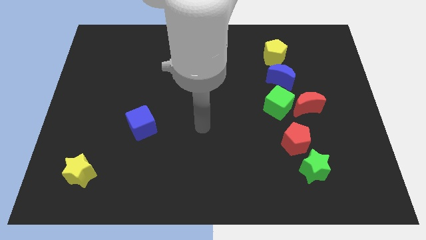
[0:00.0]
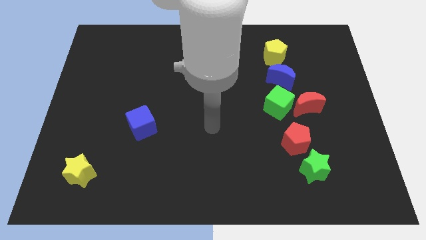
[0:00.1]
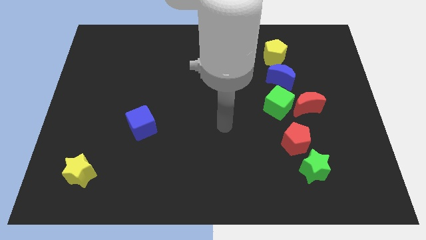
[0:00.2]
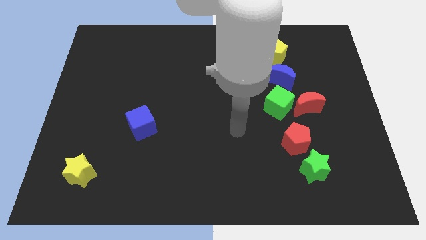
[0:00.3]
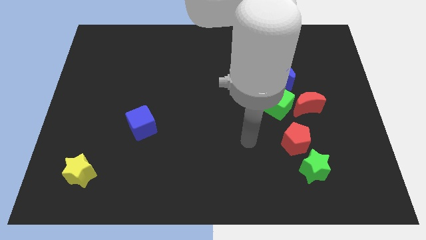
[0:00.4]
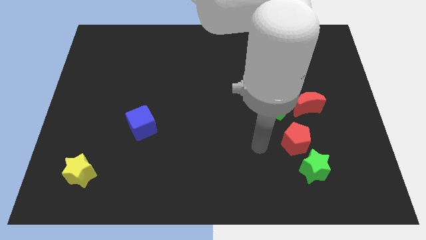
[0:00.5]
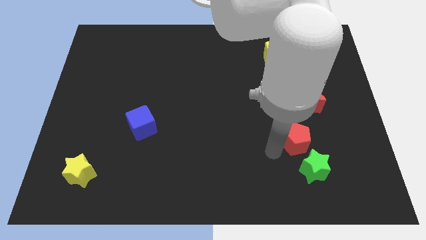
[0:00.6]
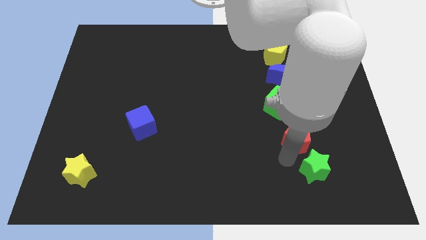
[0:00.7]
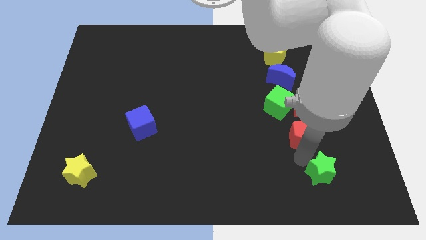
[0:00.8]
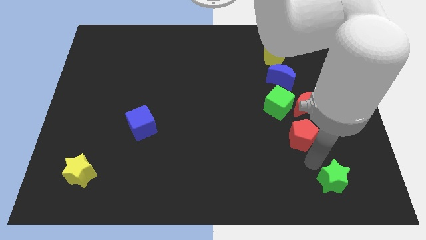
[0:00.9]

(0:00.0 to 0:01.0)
separate the red pentagon from the green star

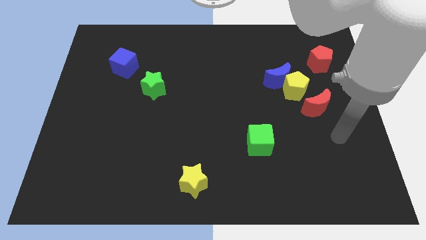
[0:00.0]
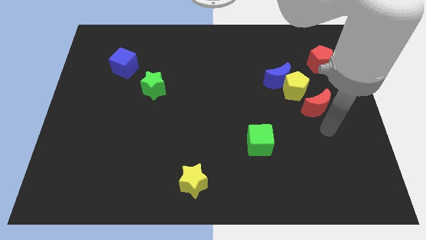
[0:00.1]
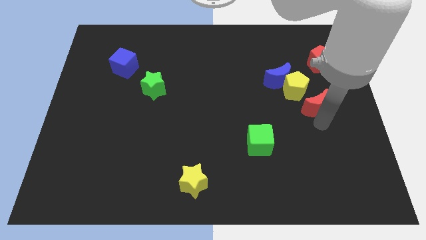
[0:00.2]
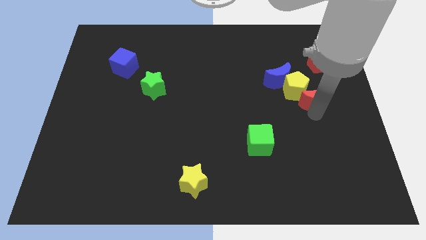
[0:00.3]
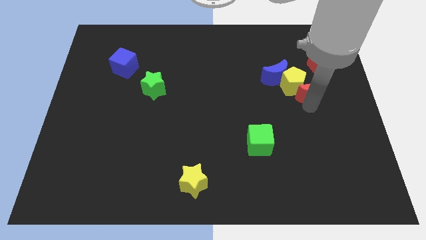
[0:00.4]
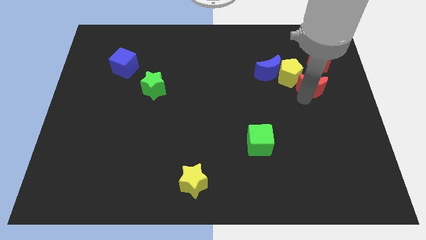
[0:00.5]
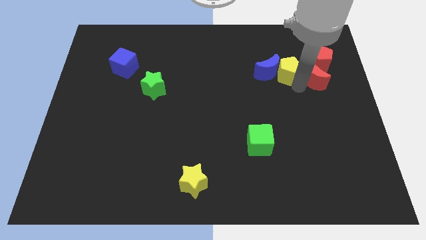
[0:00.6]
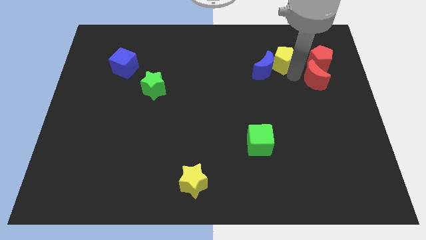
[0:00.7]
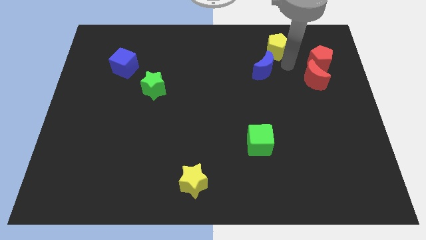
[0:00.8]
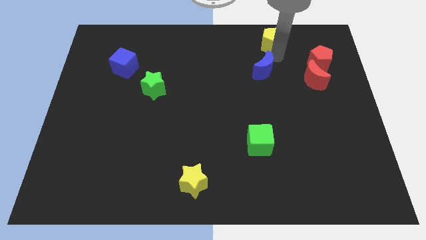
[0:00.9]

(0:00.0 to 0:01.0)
pull the blue moon apart from the yellow pentagon

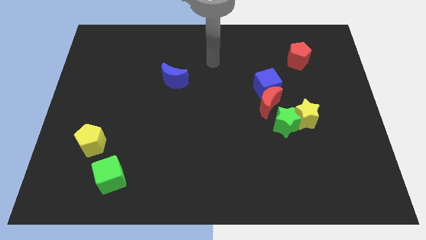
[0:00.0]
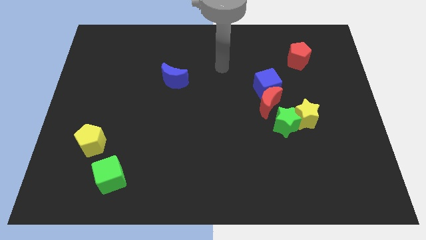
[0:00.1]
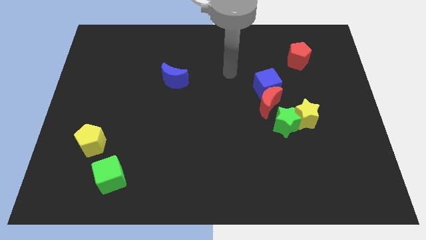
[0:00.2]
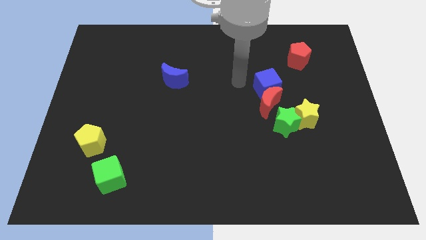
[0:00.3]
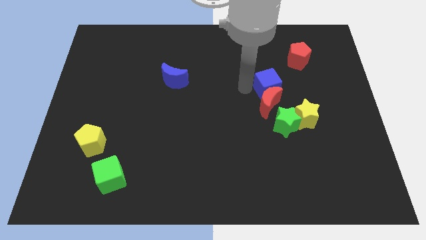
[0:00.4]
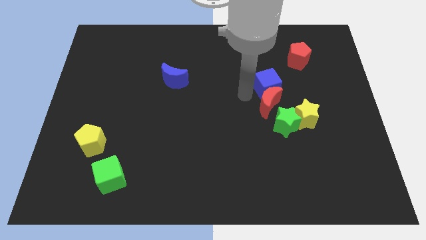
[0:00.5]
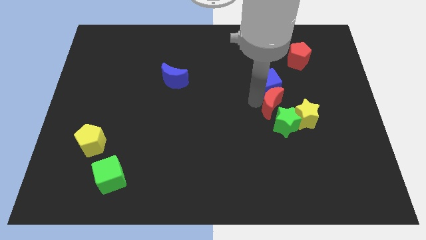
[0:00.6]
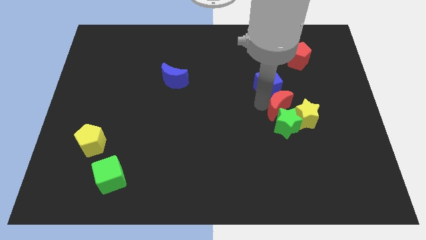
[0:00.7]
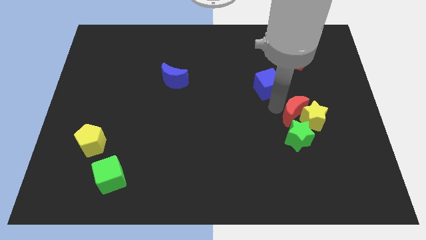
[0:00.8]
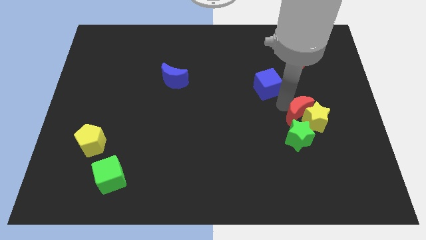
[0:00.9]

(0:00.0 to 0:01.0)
move the blue cube away from the red moon

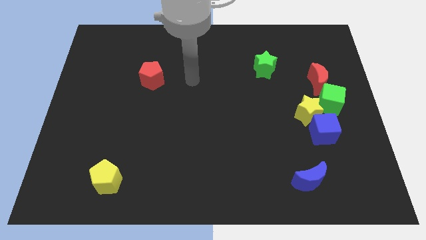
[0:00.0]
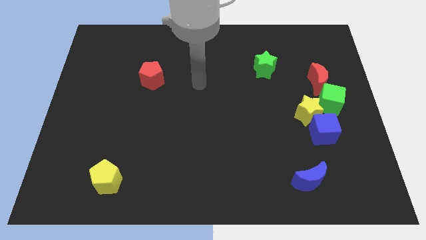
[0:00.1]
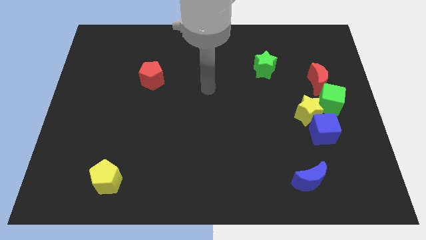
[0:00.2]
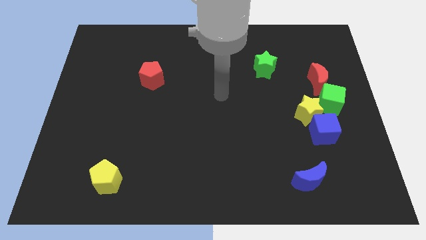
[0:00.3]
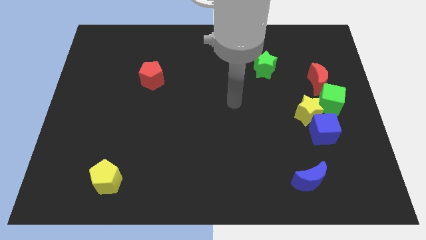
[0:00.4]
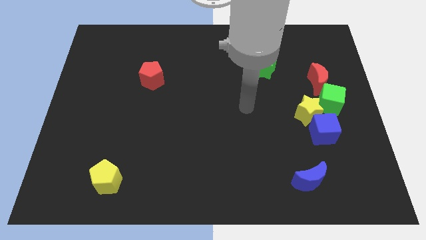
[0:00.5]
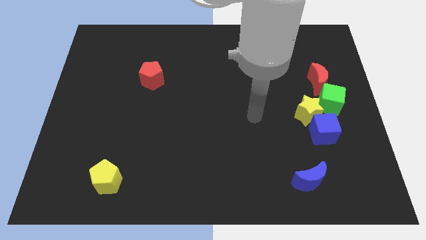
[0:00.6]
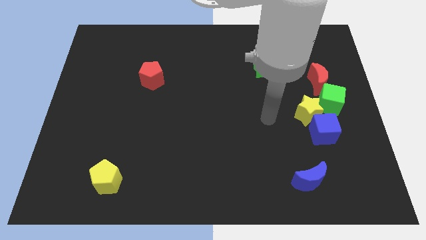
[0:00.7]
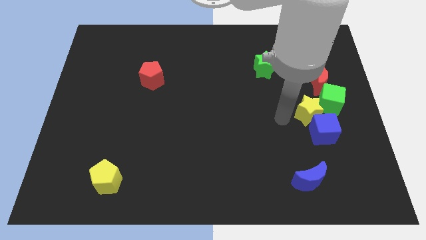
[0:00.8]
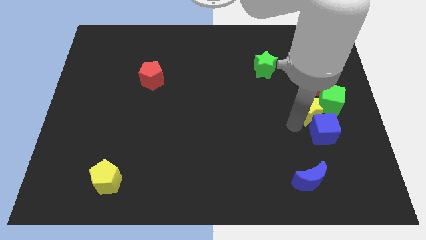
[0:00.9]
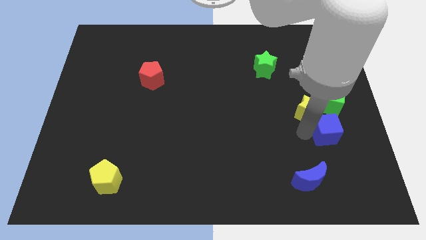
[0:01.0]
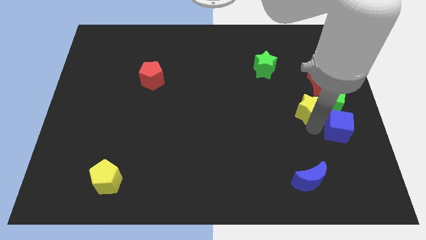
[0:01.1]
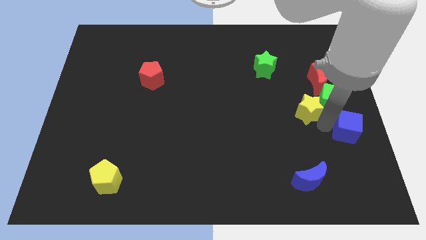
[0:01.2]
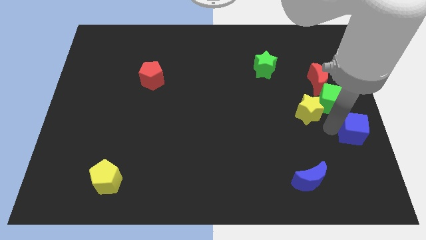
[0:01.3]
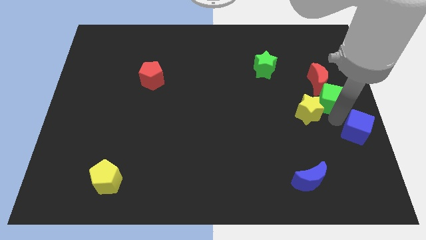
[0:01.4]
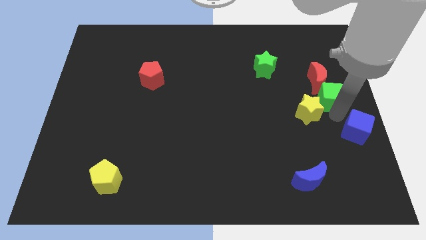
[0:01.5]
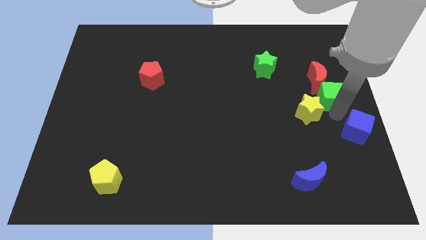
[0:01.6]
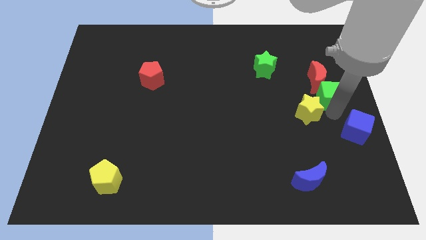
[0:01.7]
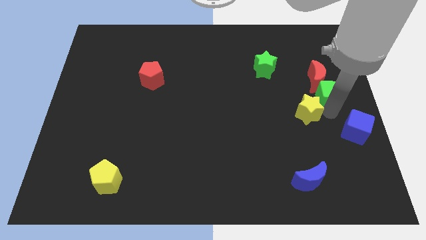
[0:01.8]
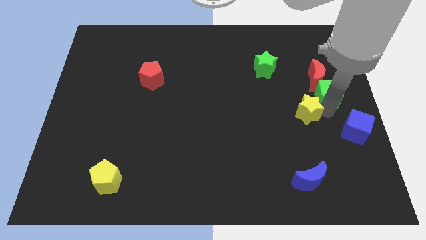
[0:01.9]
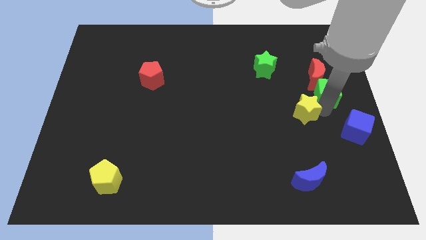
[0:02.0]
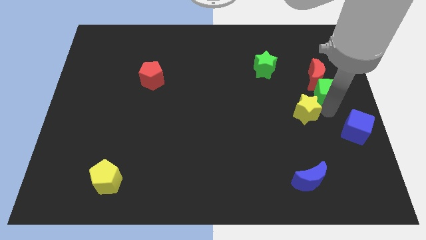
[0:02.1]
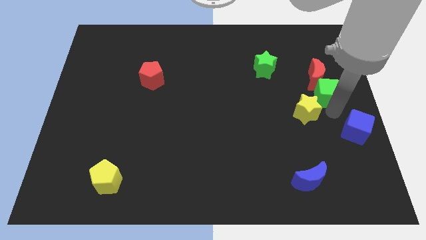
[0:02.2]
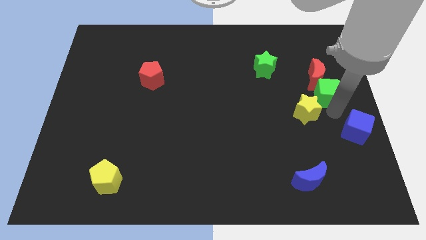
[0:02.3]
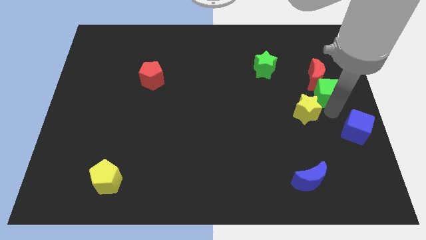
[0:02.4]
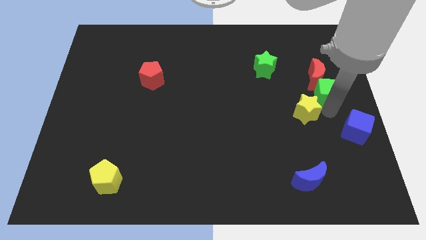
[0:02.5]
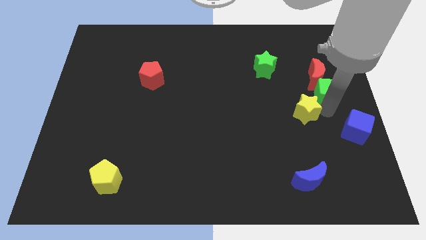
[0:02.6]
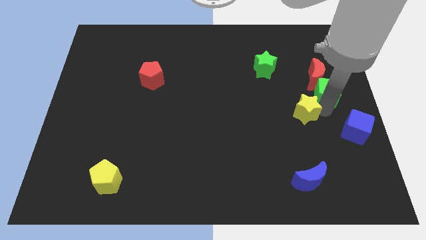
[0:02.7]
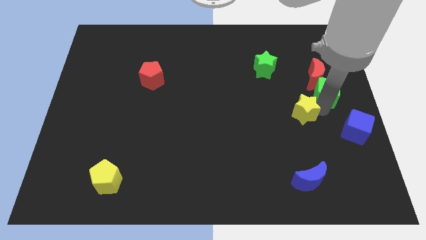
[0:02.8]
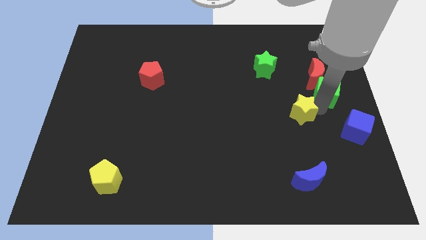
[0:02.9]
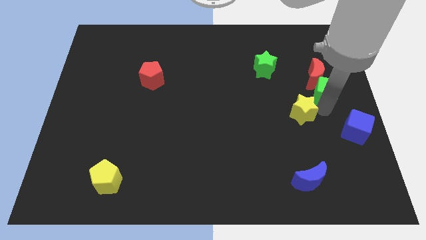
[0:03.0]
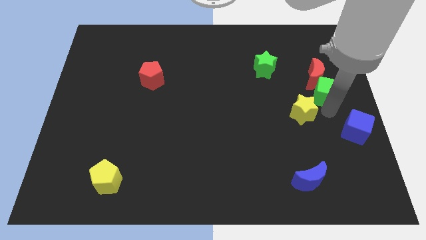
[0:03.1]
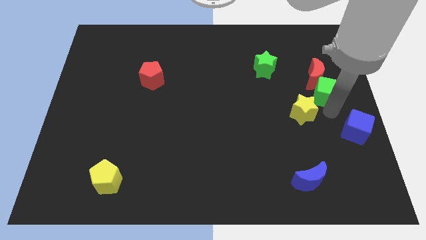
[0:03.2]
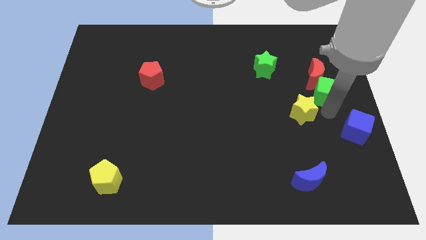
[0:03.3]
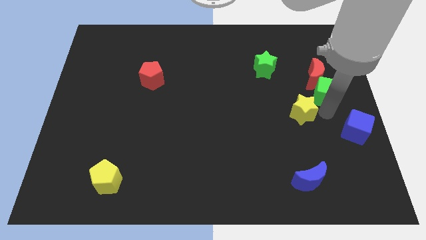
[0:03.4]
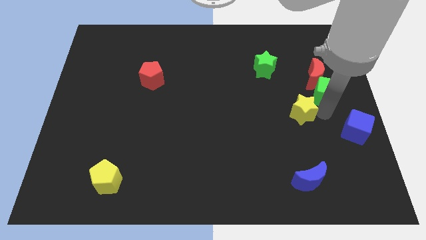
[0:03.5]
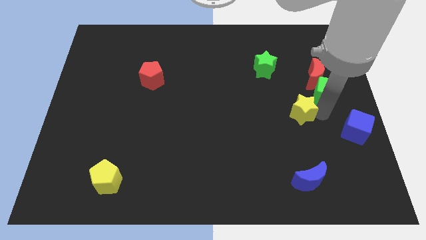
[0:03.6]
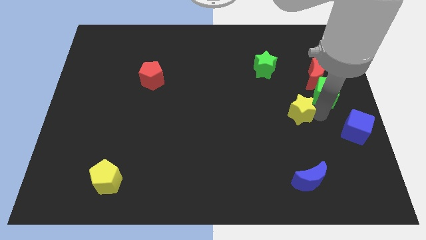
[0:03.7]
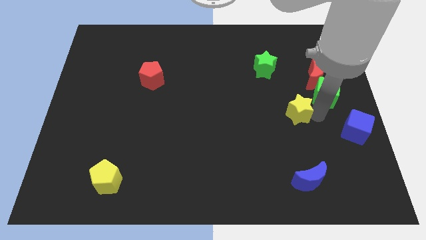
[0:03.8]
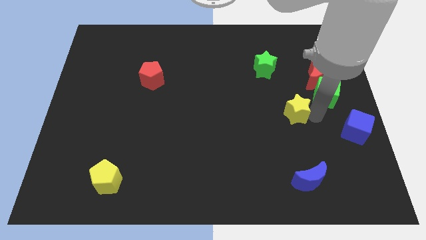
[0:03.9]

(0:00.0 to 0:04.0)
pull the yellow star apart from the blue cube and green cube

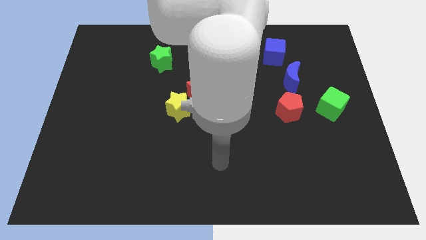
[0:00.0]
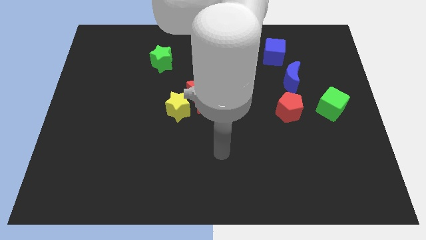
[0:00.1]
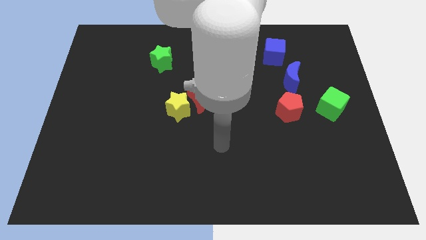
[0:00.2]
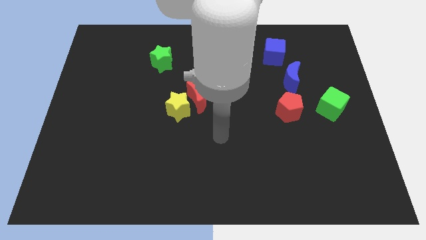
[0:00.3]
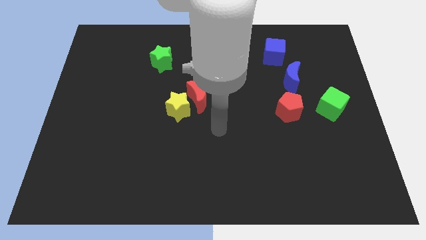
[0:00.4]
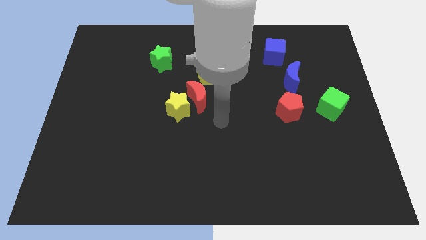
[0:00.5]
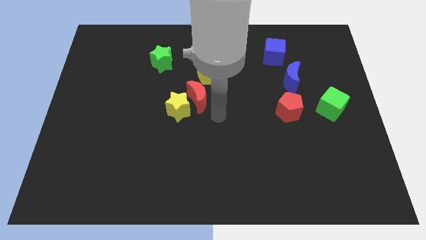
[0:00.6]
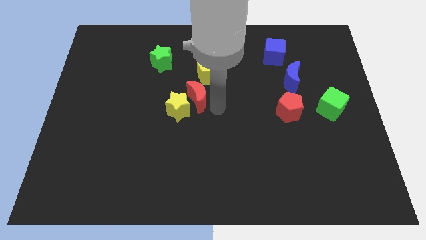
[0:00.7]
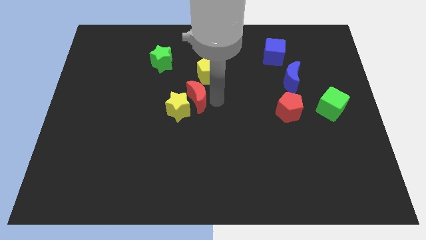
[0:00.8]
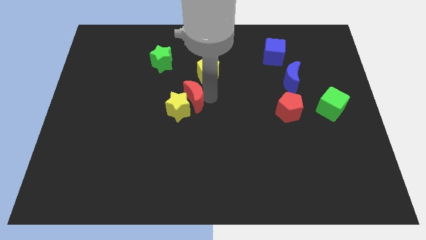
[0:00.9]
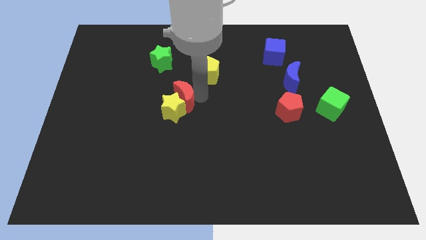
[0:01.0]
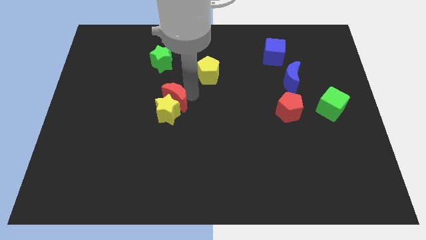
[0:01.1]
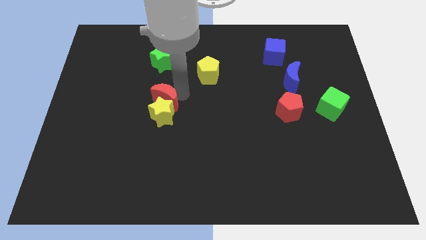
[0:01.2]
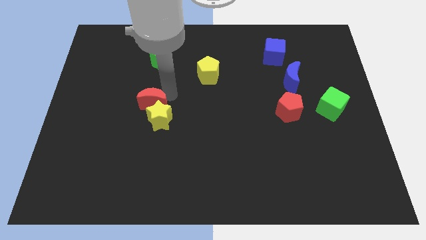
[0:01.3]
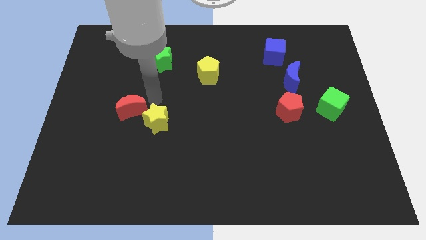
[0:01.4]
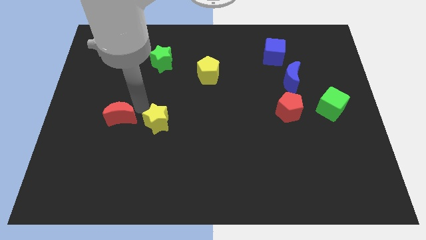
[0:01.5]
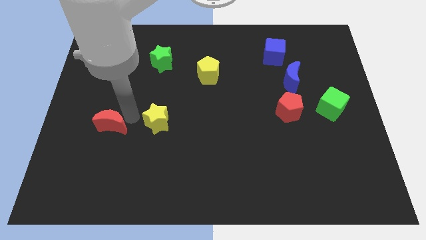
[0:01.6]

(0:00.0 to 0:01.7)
pull the yellow star apart from the red moon

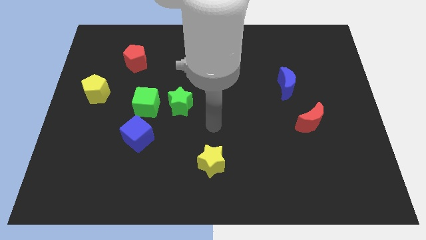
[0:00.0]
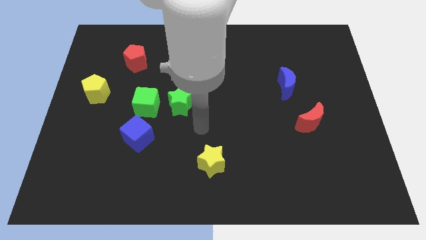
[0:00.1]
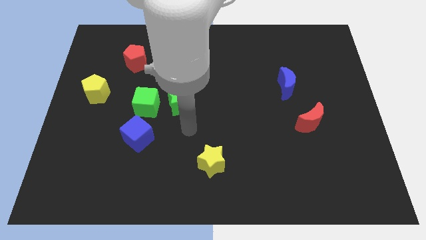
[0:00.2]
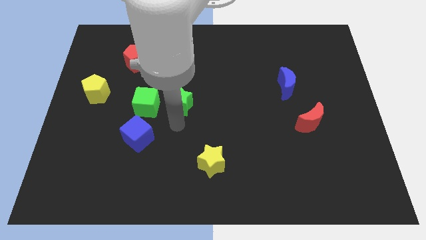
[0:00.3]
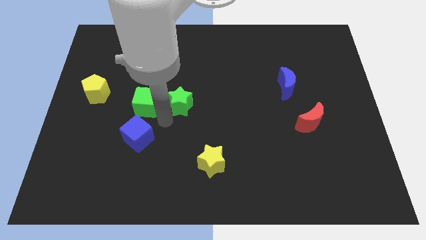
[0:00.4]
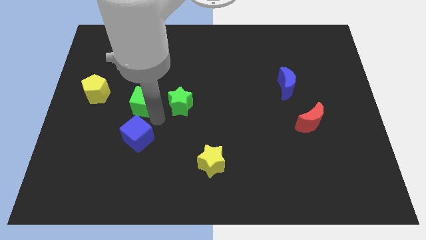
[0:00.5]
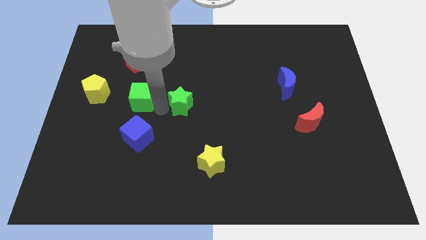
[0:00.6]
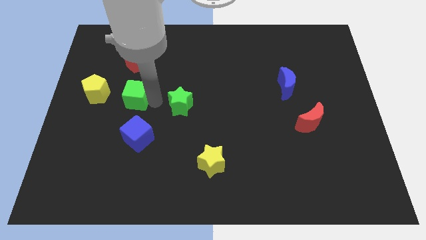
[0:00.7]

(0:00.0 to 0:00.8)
pull the green star apart from the green cube
